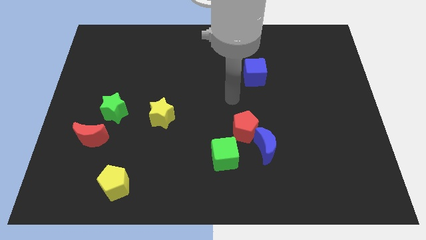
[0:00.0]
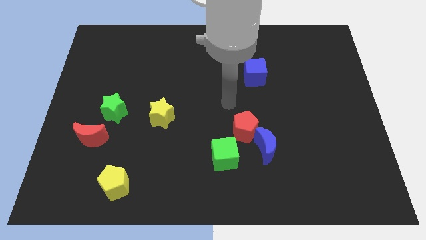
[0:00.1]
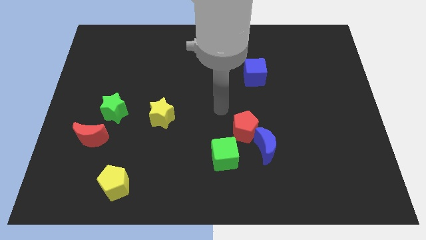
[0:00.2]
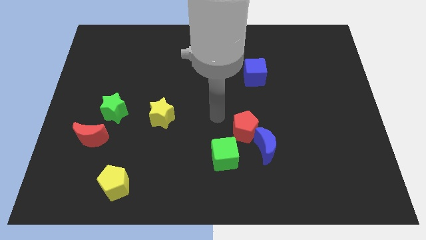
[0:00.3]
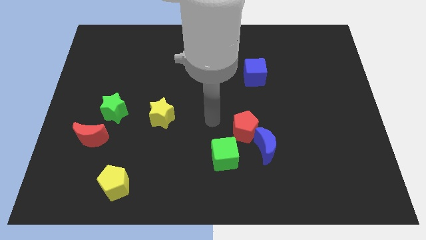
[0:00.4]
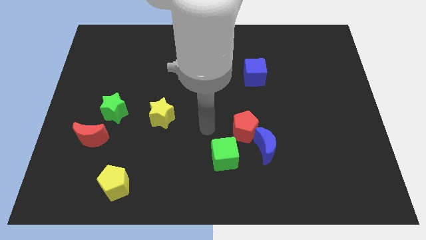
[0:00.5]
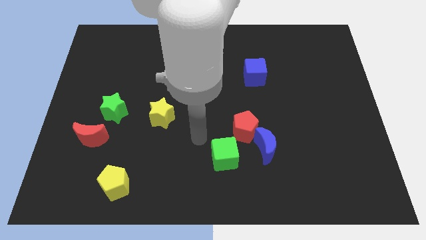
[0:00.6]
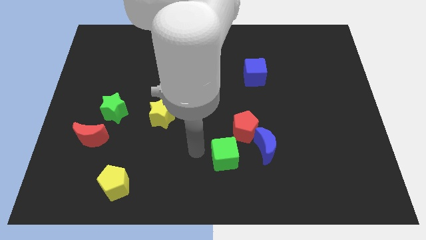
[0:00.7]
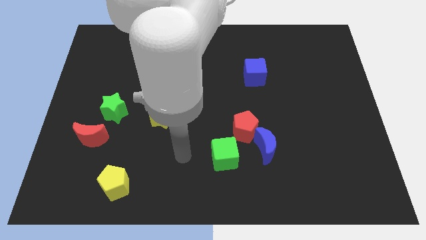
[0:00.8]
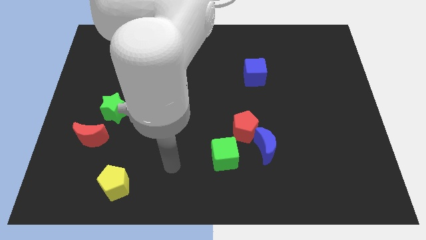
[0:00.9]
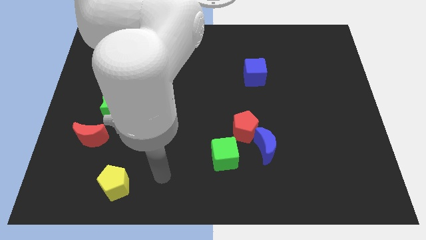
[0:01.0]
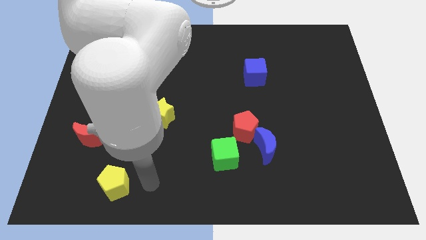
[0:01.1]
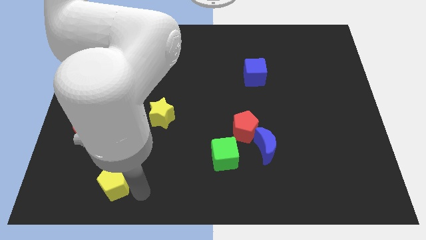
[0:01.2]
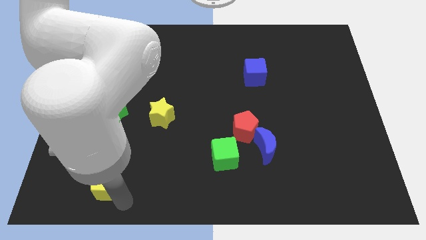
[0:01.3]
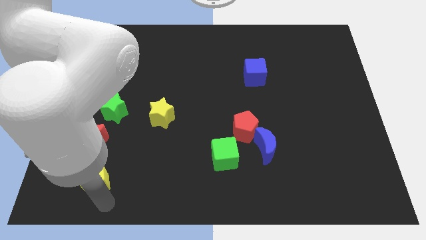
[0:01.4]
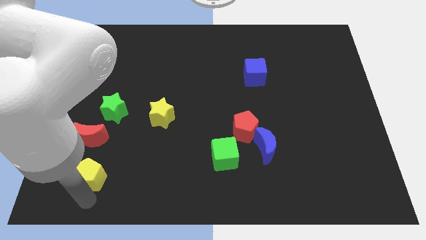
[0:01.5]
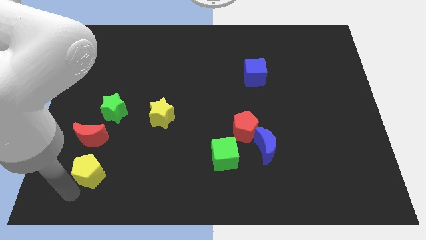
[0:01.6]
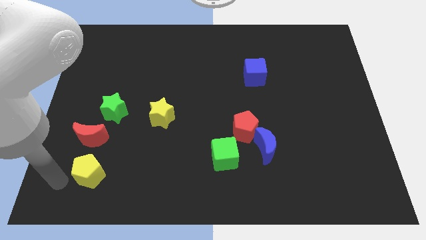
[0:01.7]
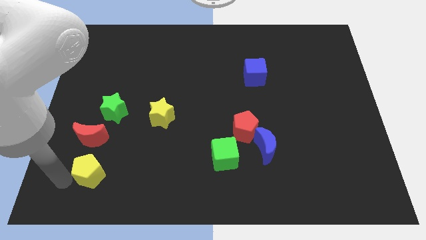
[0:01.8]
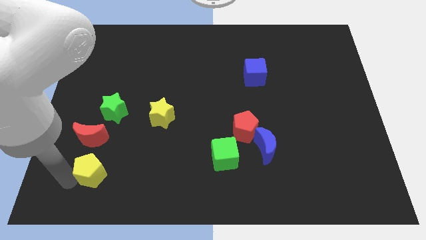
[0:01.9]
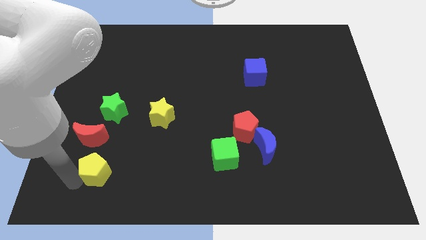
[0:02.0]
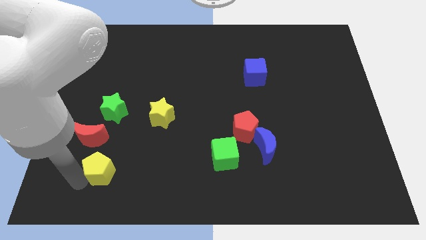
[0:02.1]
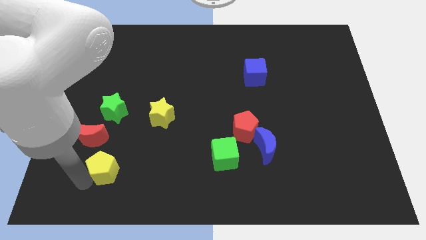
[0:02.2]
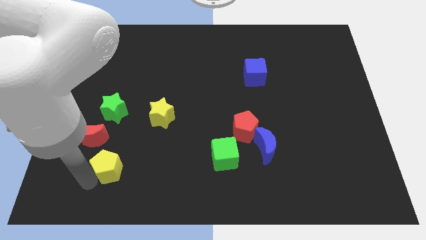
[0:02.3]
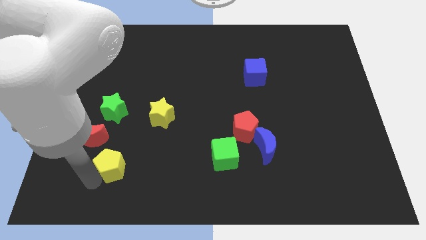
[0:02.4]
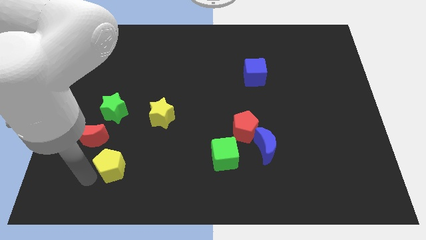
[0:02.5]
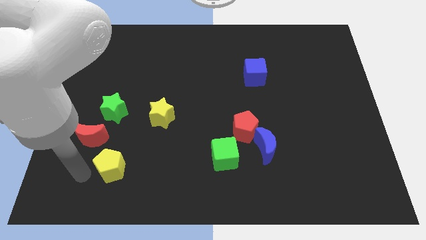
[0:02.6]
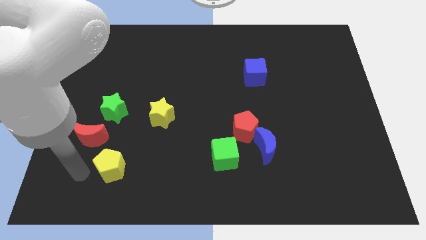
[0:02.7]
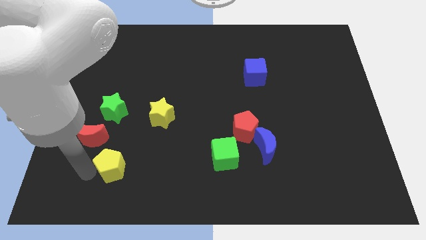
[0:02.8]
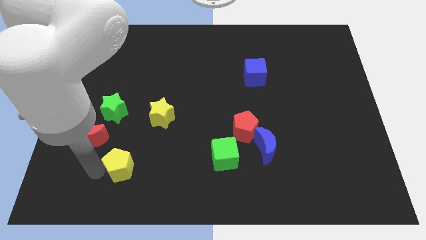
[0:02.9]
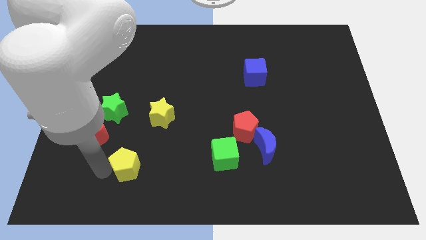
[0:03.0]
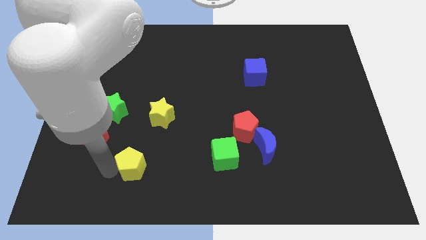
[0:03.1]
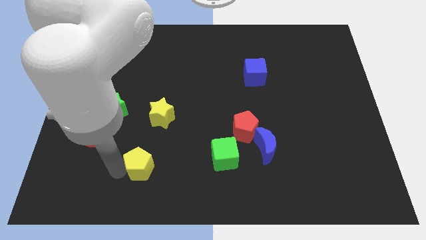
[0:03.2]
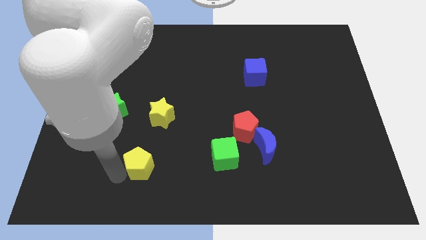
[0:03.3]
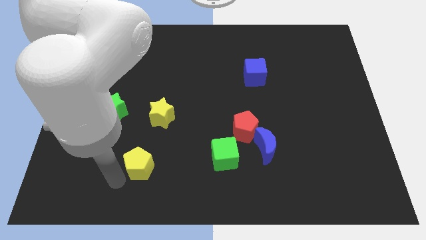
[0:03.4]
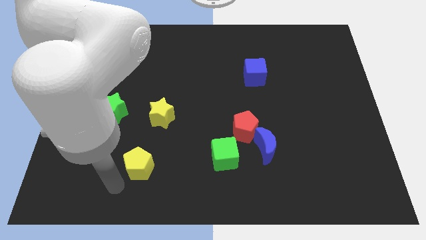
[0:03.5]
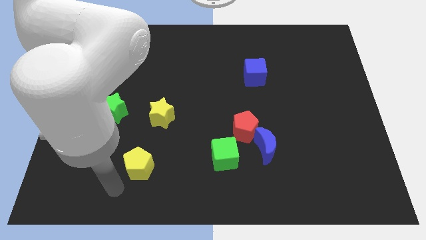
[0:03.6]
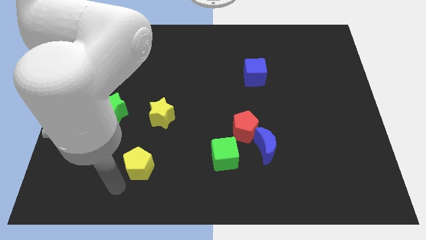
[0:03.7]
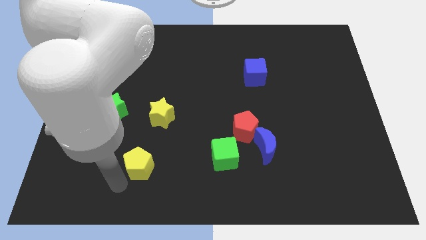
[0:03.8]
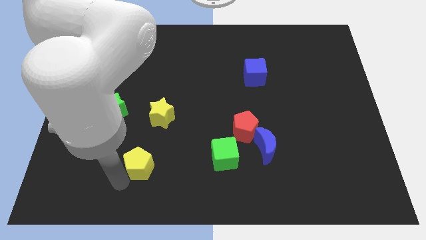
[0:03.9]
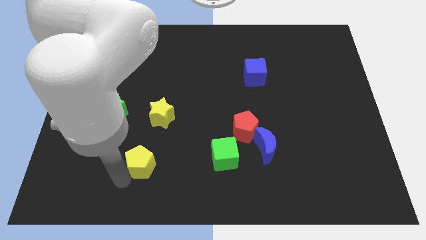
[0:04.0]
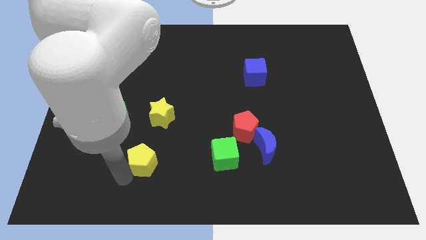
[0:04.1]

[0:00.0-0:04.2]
slightly slide the yellow pentagon up and to the right diagonally

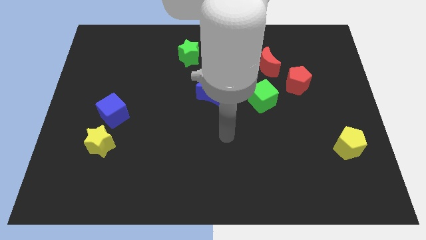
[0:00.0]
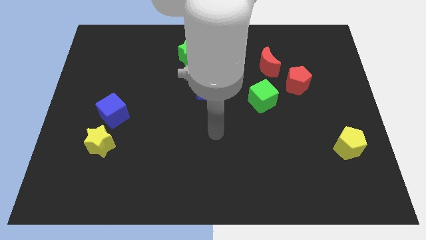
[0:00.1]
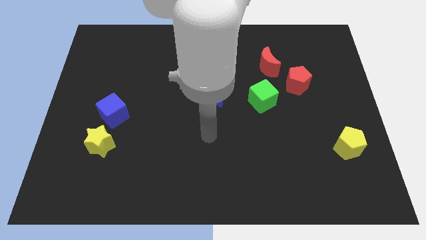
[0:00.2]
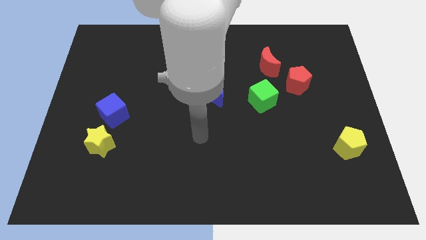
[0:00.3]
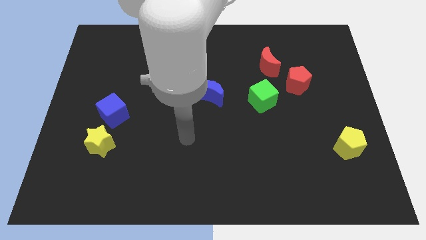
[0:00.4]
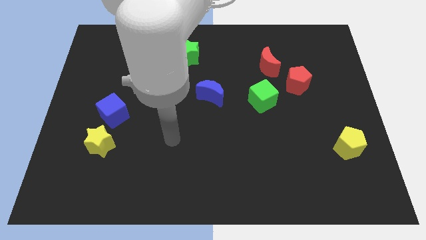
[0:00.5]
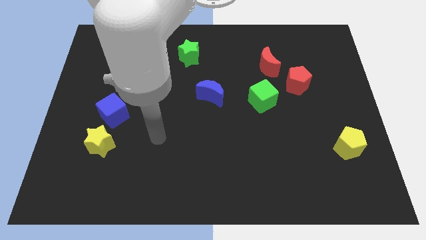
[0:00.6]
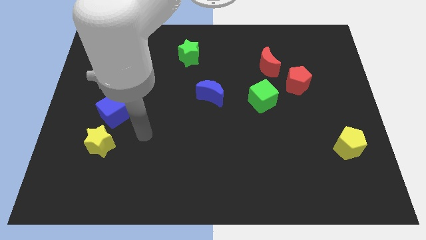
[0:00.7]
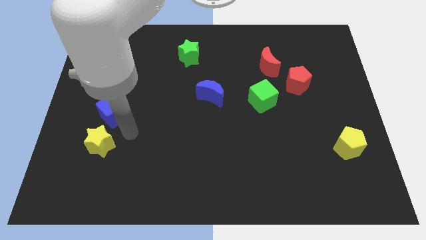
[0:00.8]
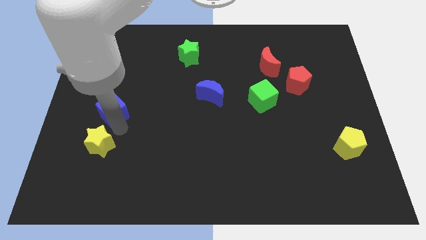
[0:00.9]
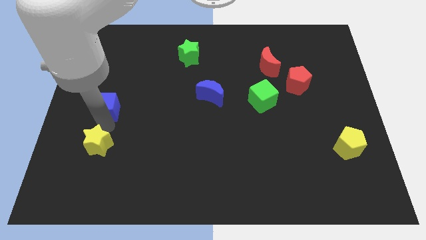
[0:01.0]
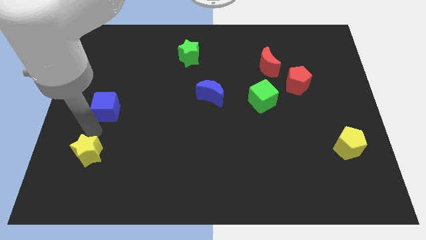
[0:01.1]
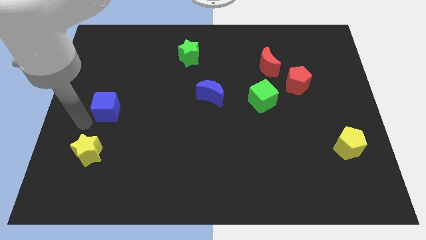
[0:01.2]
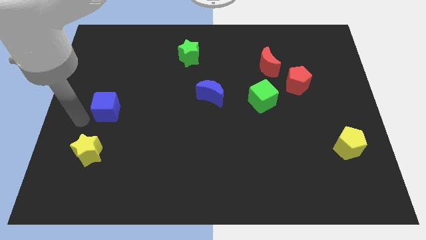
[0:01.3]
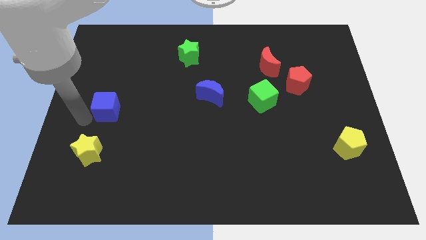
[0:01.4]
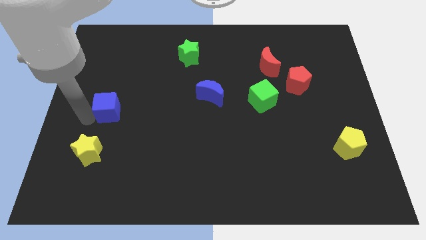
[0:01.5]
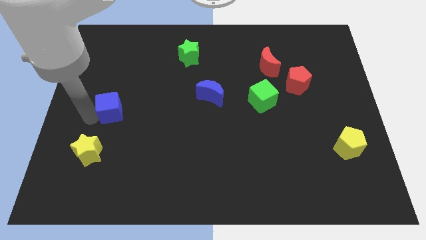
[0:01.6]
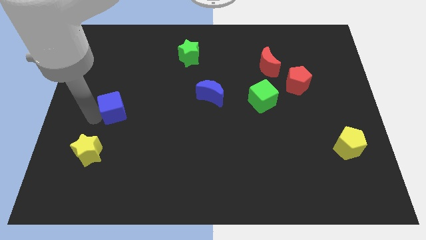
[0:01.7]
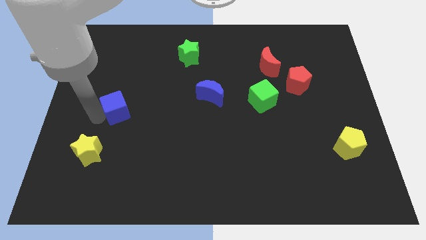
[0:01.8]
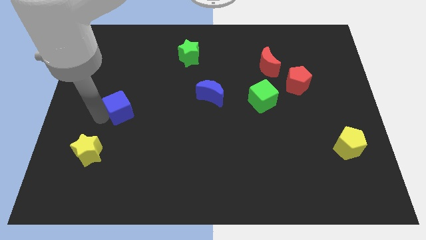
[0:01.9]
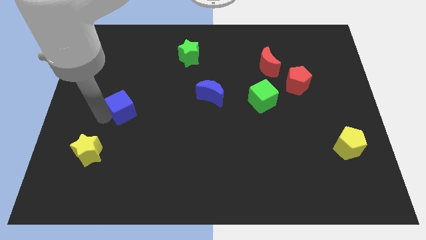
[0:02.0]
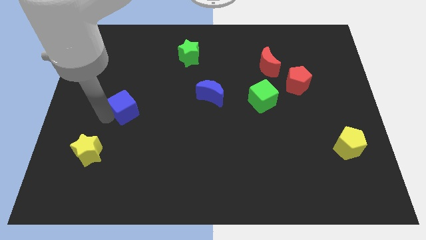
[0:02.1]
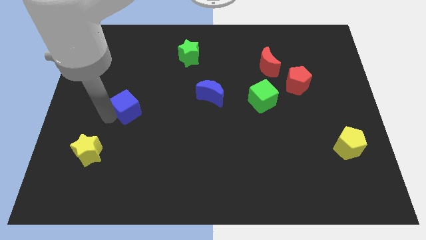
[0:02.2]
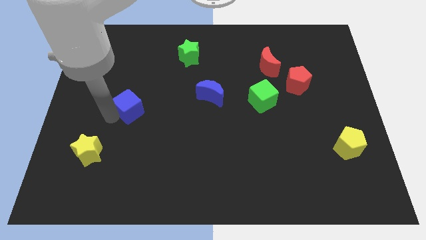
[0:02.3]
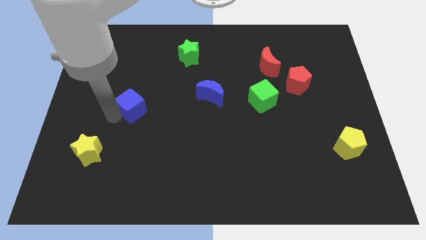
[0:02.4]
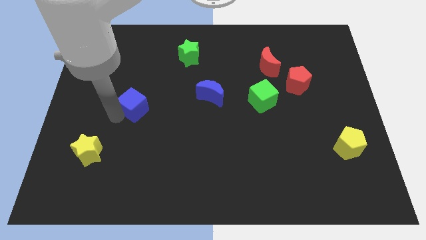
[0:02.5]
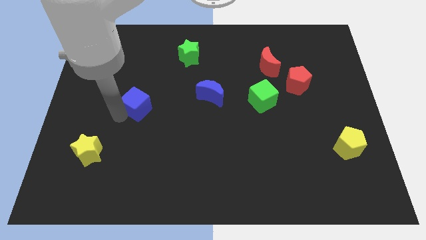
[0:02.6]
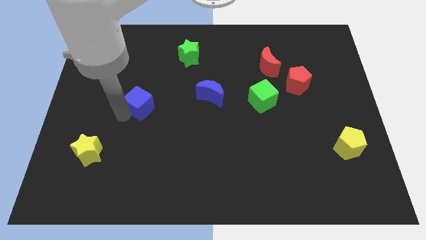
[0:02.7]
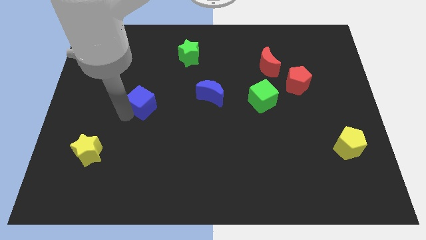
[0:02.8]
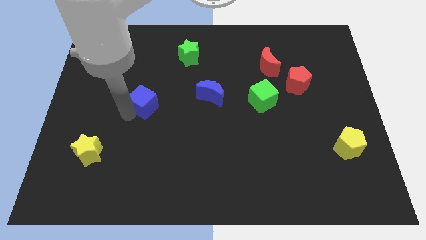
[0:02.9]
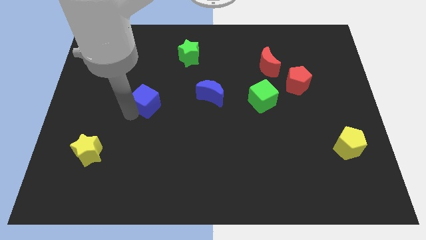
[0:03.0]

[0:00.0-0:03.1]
move the blue cube a little bit upwards and to the right

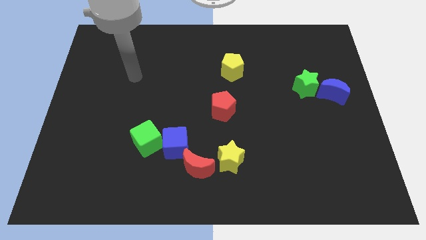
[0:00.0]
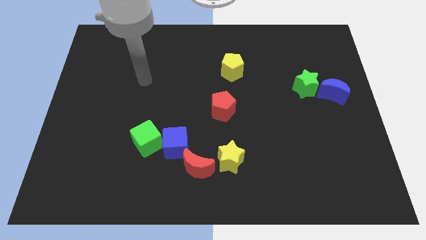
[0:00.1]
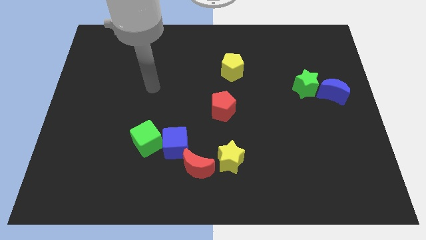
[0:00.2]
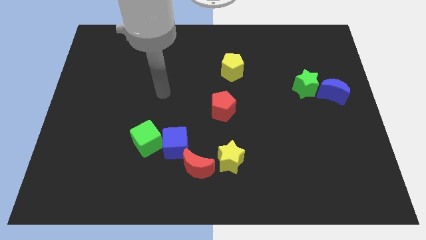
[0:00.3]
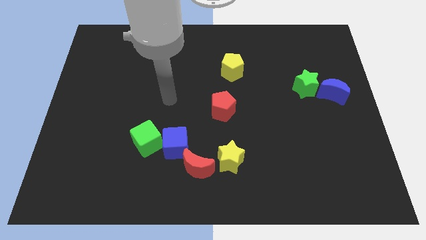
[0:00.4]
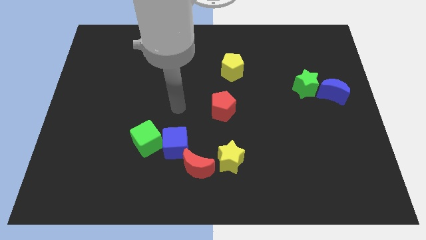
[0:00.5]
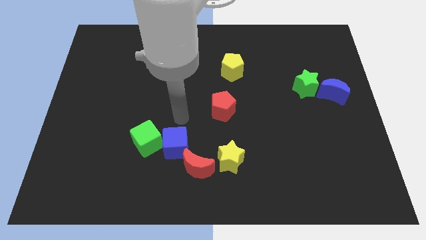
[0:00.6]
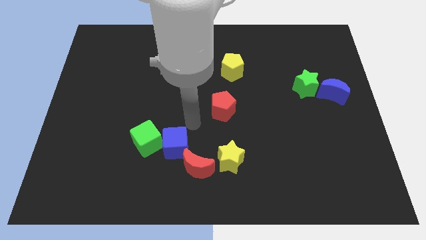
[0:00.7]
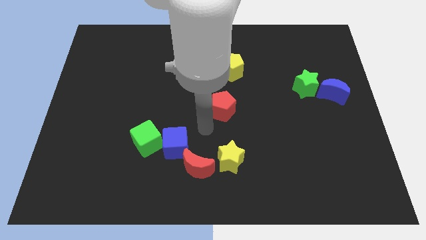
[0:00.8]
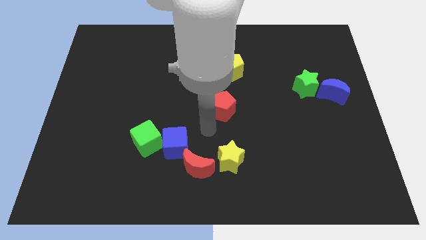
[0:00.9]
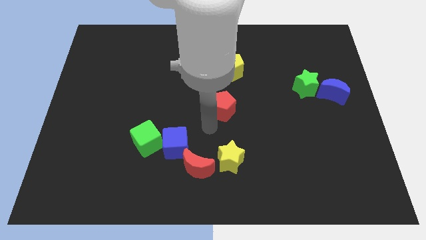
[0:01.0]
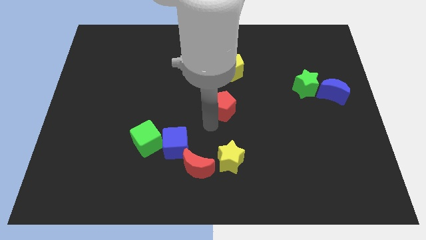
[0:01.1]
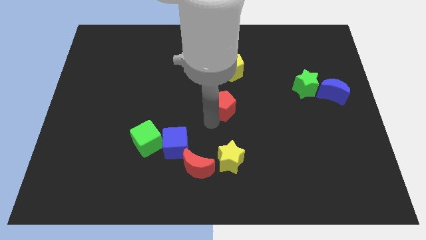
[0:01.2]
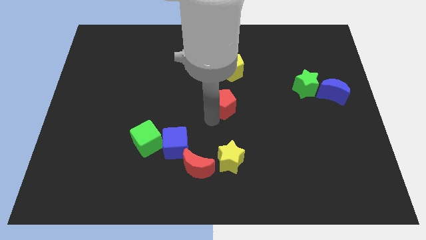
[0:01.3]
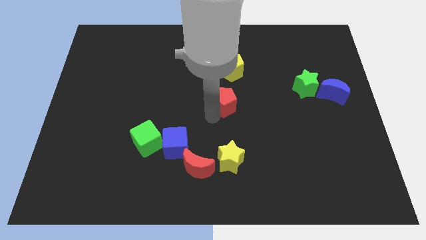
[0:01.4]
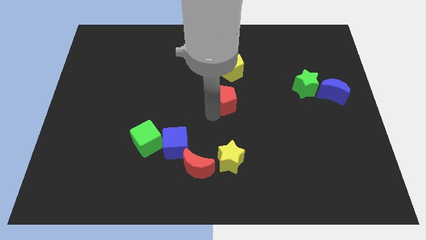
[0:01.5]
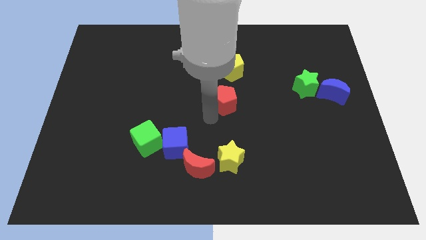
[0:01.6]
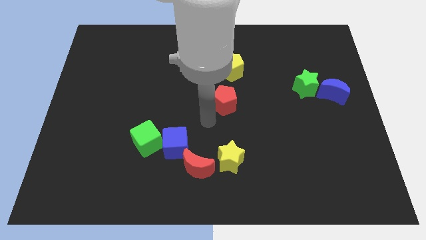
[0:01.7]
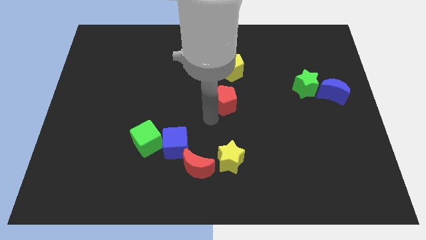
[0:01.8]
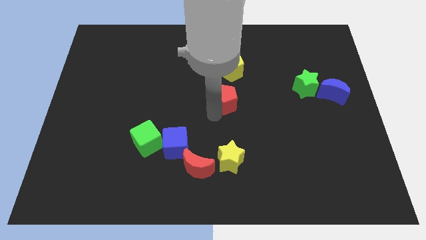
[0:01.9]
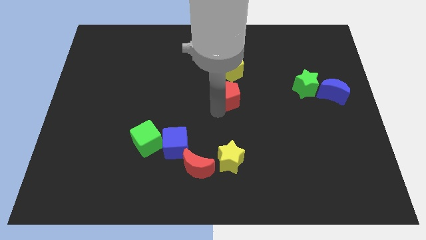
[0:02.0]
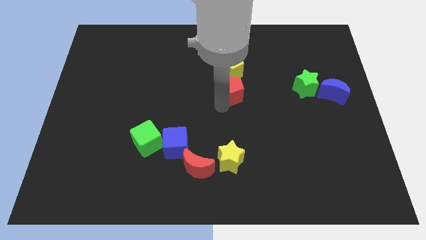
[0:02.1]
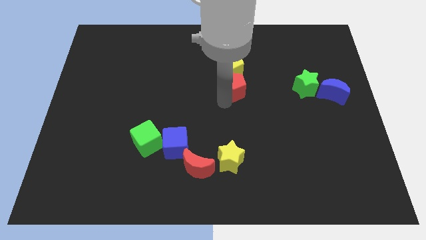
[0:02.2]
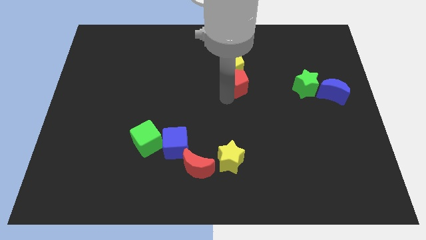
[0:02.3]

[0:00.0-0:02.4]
slightly slide the red pentagon diagonally upwards and right
